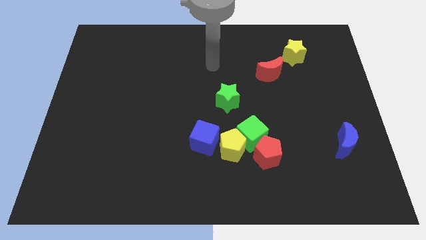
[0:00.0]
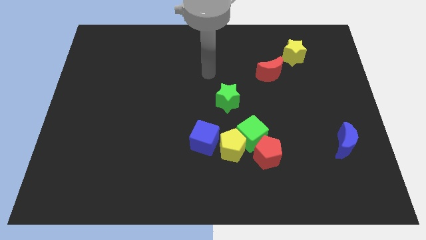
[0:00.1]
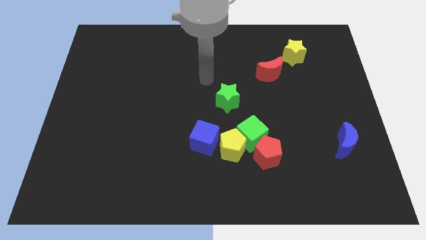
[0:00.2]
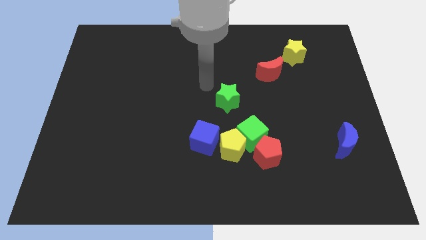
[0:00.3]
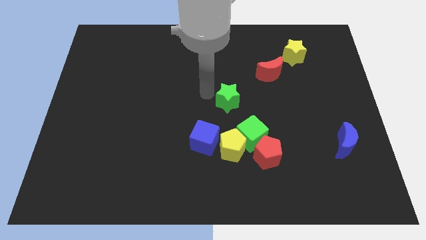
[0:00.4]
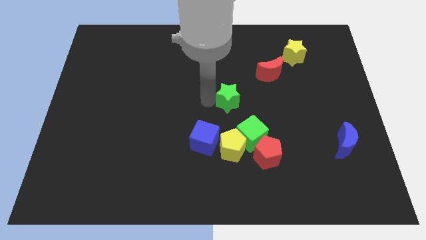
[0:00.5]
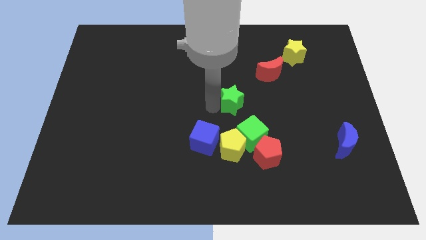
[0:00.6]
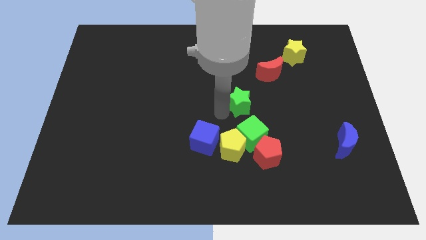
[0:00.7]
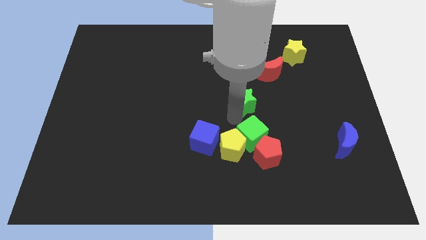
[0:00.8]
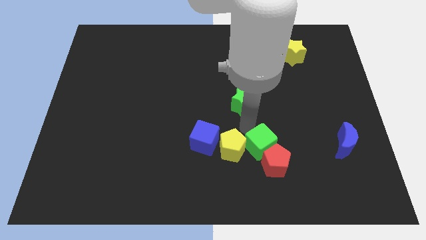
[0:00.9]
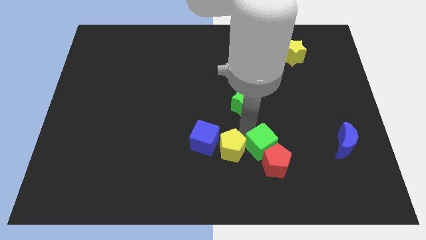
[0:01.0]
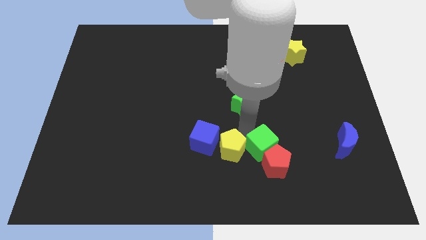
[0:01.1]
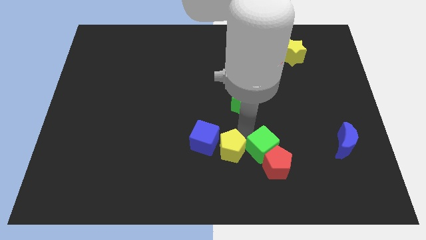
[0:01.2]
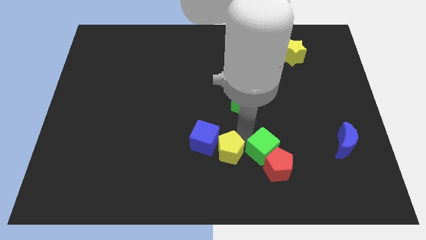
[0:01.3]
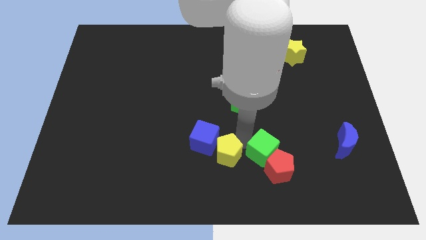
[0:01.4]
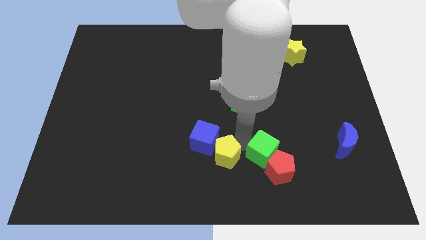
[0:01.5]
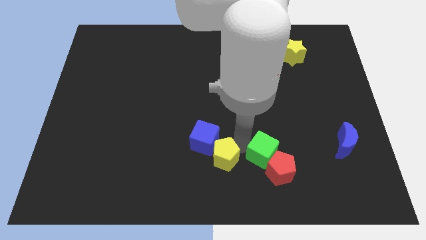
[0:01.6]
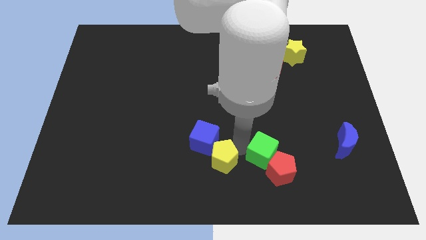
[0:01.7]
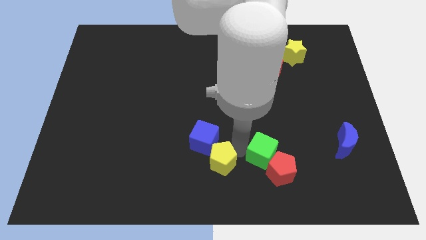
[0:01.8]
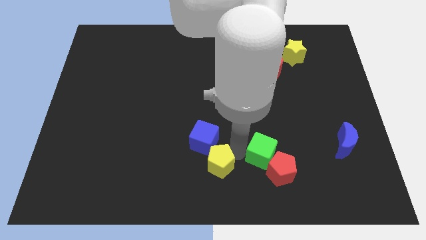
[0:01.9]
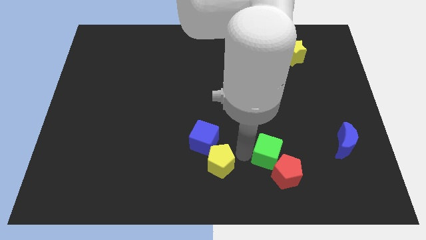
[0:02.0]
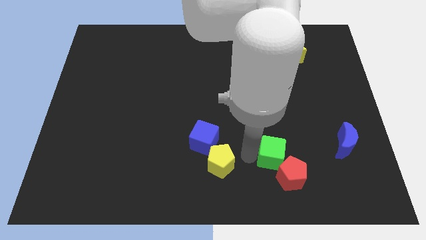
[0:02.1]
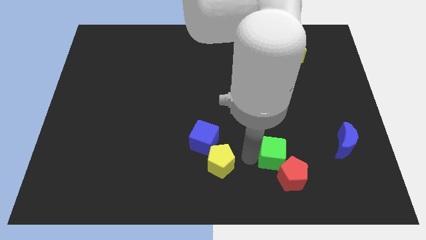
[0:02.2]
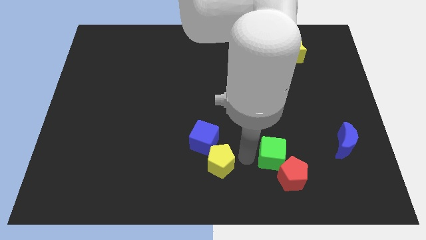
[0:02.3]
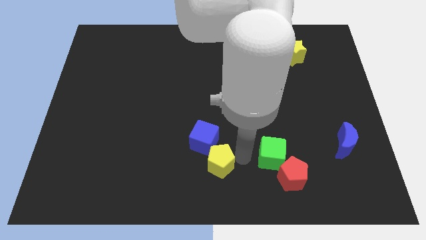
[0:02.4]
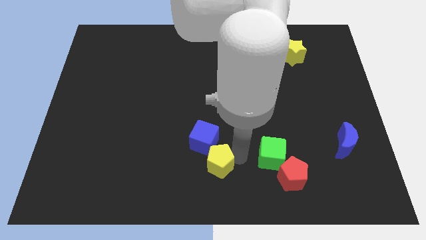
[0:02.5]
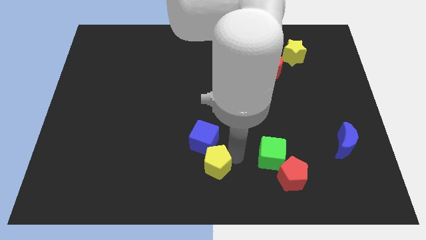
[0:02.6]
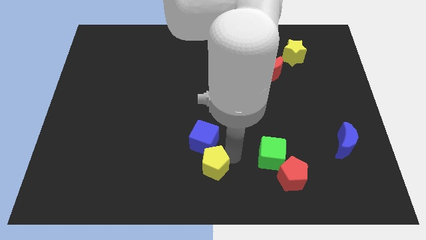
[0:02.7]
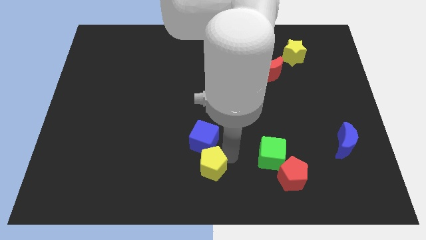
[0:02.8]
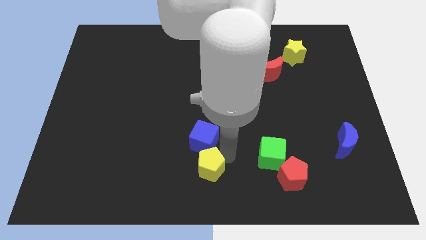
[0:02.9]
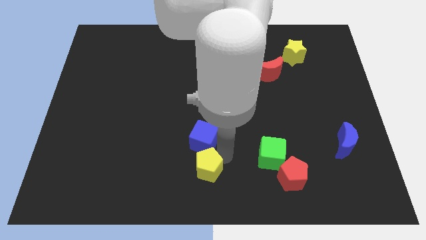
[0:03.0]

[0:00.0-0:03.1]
pull the yellow pentagon apart from the clump

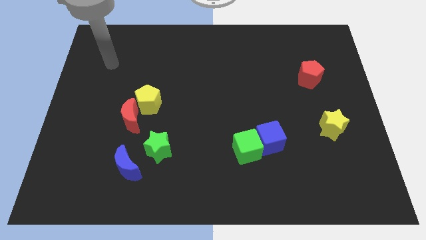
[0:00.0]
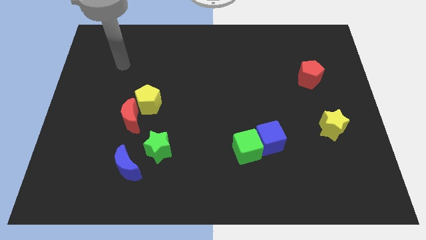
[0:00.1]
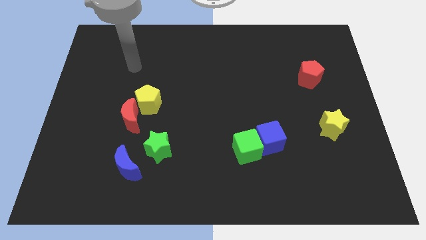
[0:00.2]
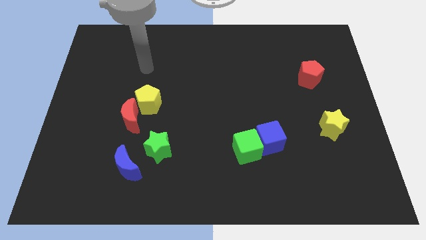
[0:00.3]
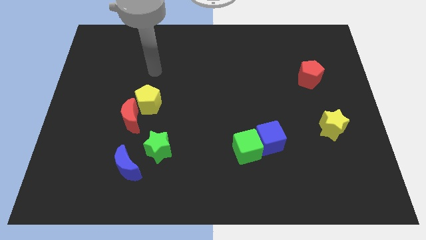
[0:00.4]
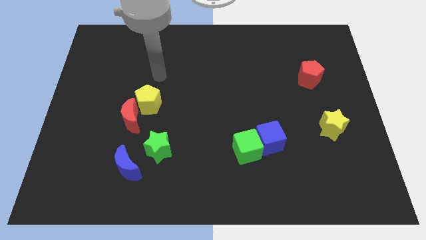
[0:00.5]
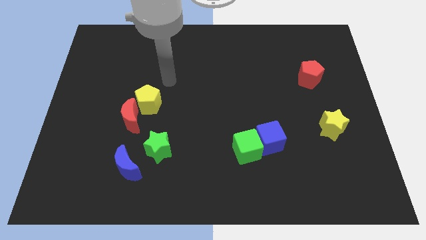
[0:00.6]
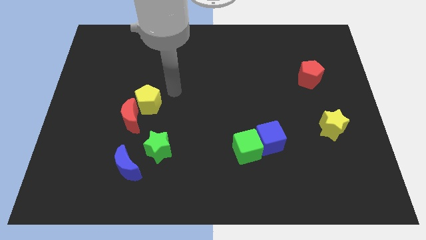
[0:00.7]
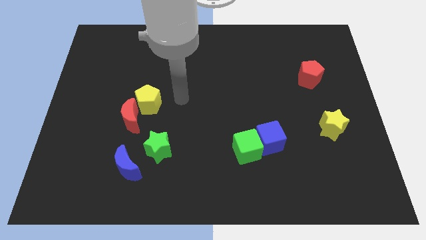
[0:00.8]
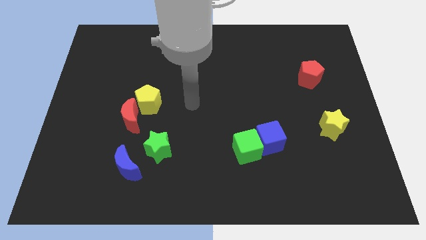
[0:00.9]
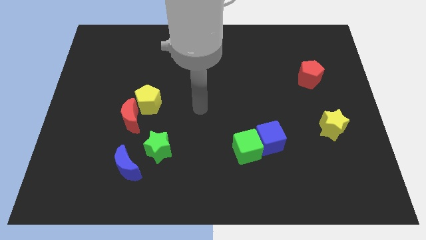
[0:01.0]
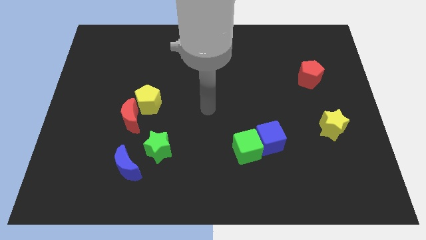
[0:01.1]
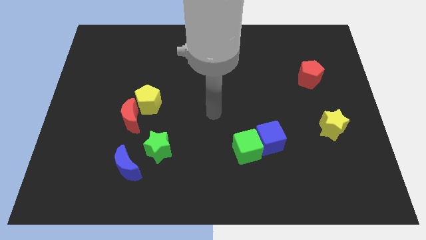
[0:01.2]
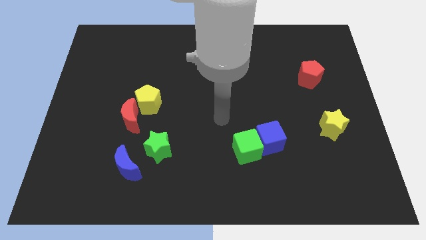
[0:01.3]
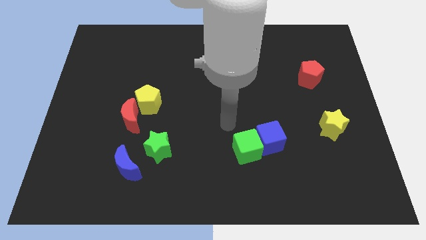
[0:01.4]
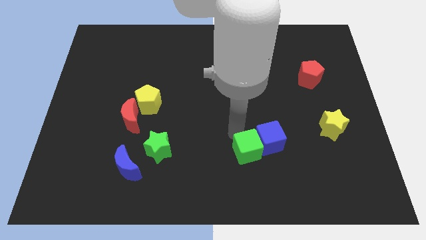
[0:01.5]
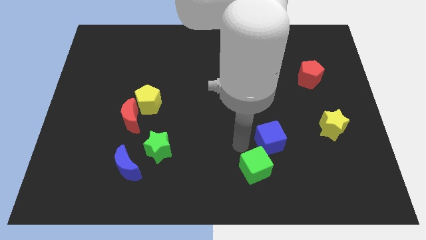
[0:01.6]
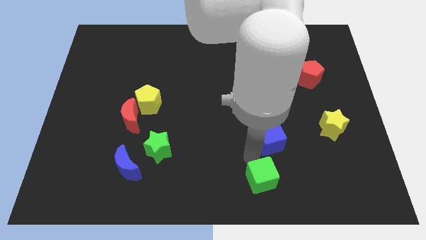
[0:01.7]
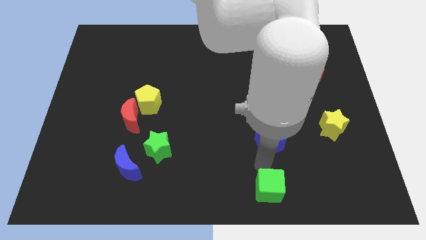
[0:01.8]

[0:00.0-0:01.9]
move the blue cube away from the green cube

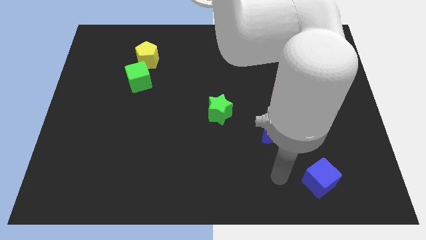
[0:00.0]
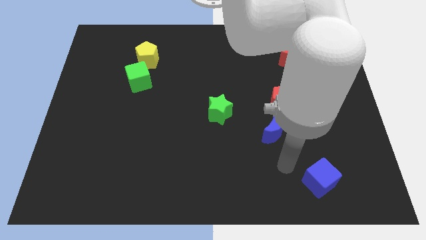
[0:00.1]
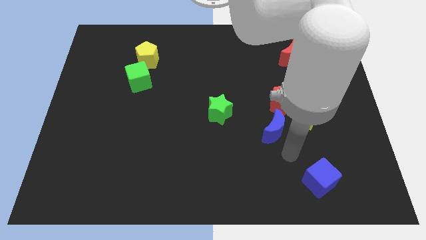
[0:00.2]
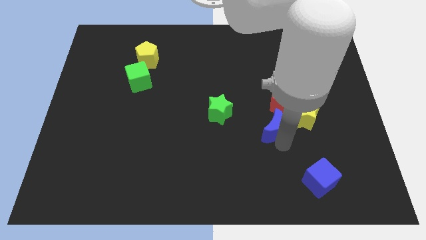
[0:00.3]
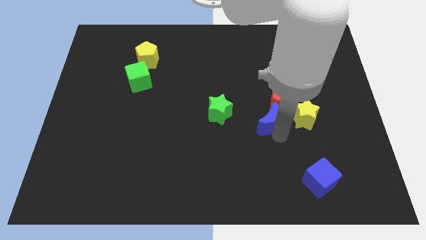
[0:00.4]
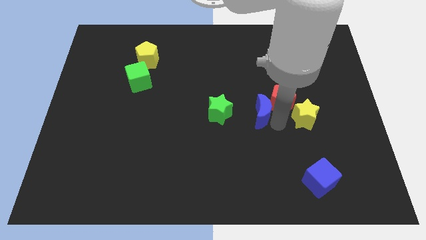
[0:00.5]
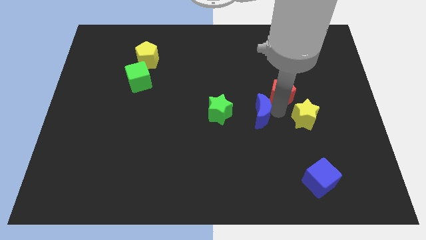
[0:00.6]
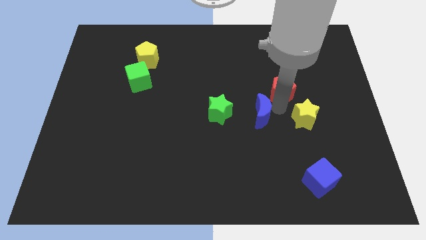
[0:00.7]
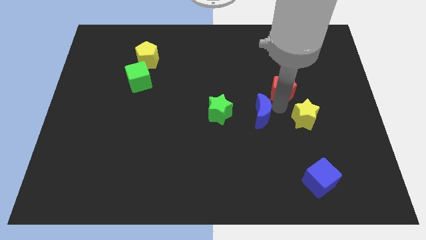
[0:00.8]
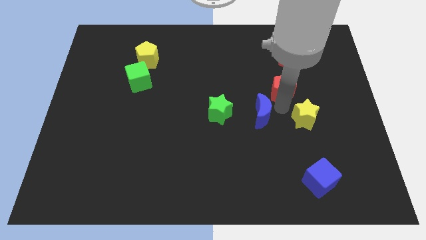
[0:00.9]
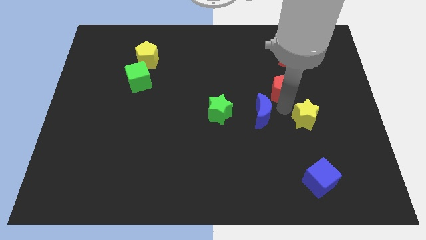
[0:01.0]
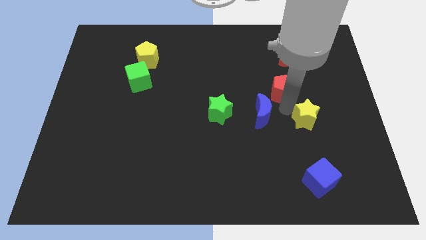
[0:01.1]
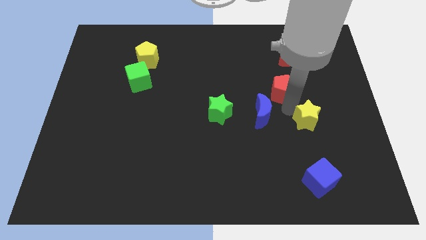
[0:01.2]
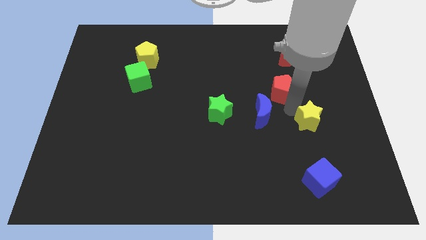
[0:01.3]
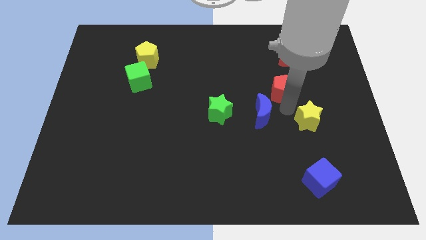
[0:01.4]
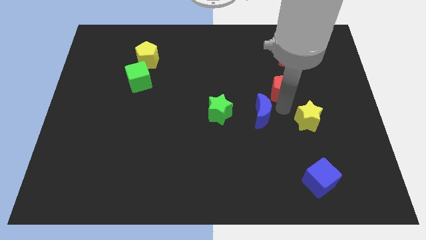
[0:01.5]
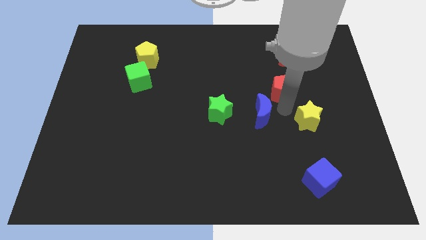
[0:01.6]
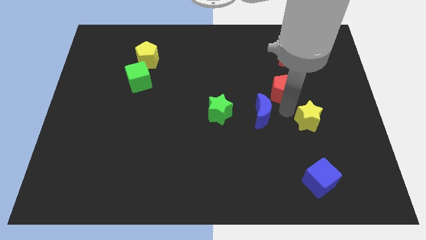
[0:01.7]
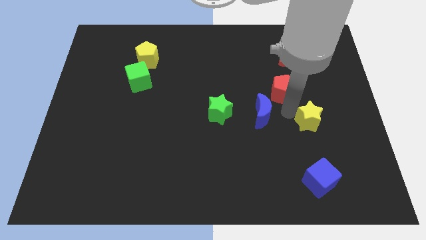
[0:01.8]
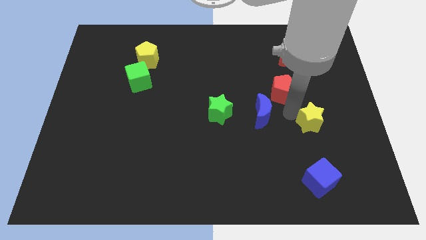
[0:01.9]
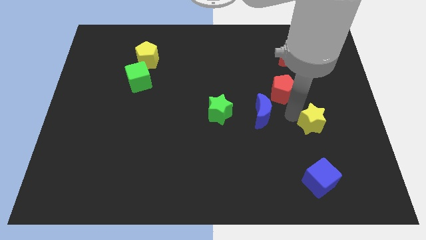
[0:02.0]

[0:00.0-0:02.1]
move the yellow star away from the red pentagon and blue moon

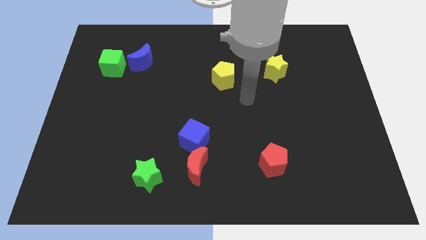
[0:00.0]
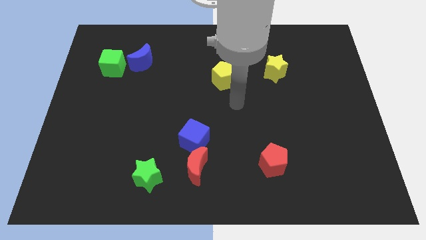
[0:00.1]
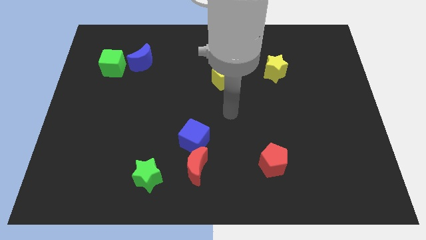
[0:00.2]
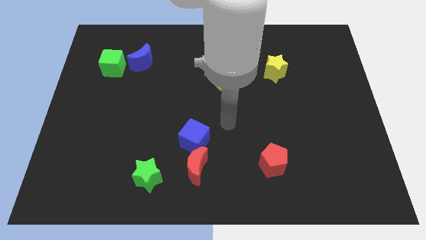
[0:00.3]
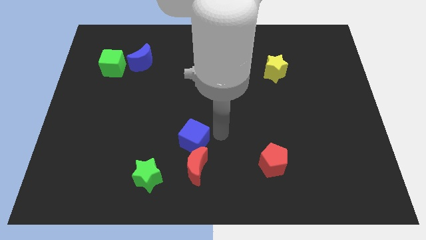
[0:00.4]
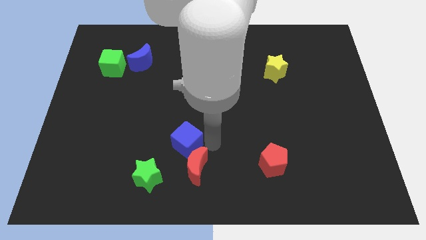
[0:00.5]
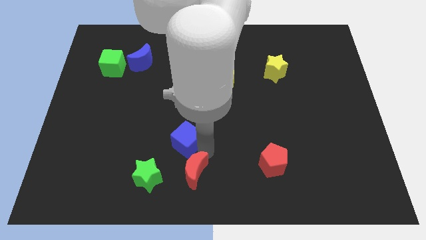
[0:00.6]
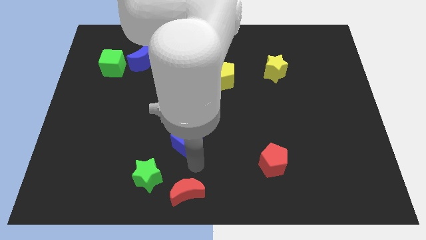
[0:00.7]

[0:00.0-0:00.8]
pull the blue cube apart from the red moon

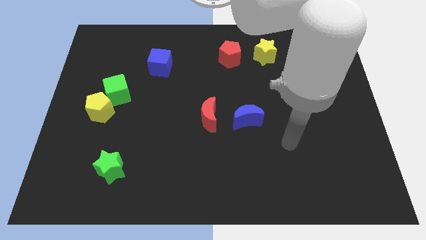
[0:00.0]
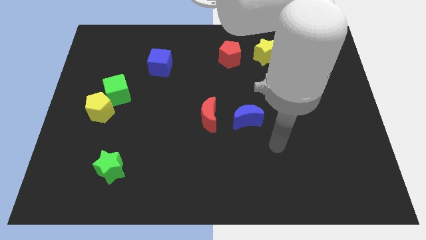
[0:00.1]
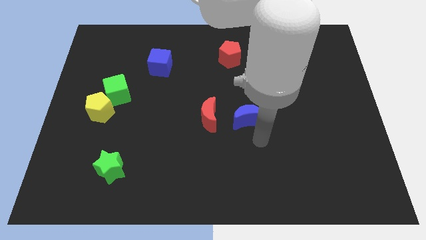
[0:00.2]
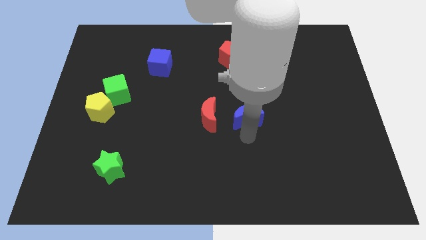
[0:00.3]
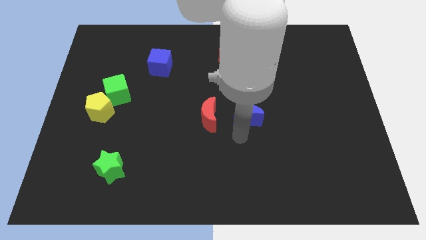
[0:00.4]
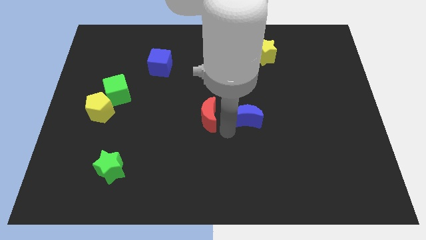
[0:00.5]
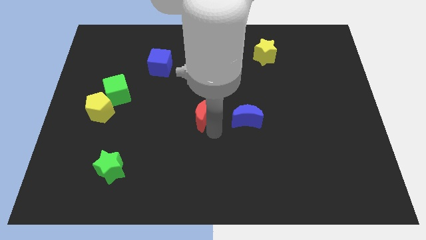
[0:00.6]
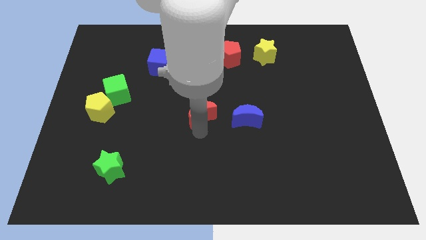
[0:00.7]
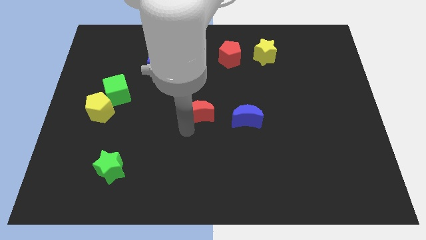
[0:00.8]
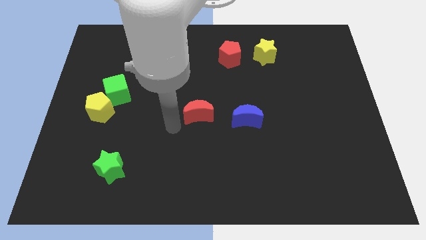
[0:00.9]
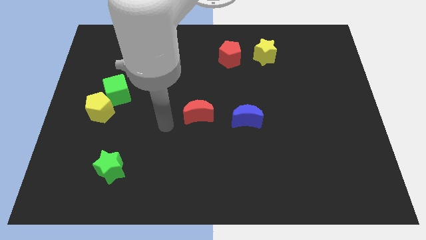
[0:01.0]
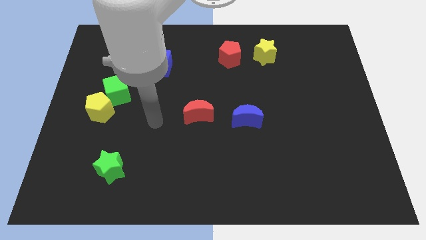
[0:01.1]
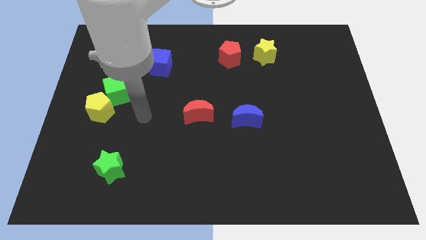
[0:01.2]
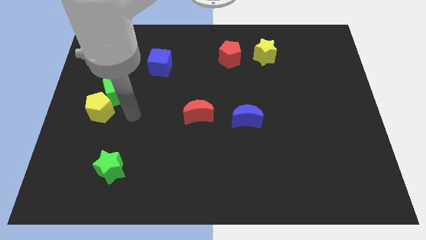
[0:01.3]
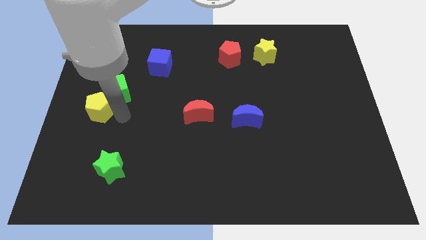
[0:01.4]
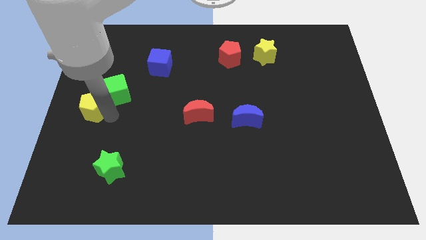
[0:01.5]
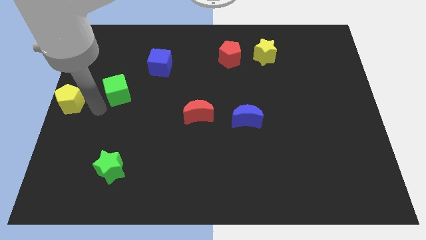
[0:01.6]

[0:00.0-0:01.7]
pull the green cube apart from the yellow pentagon
